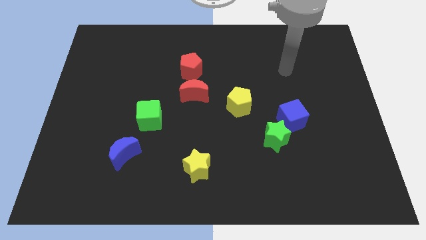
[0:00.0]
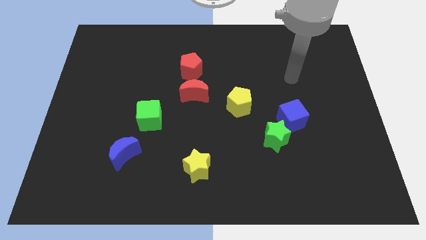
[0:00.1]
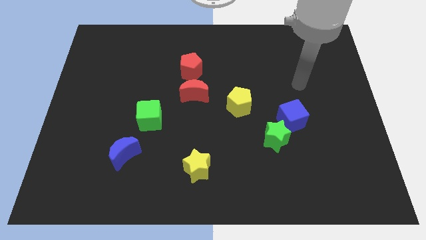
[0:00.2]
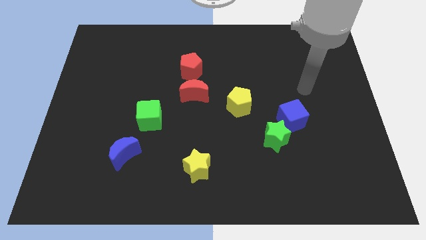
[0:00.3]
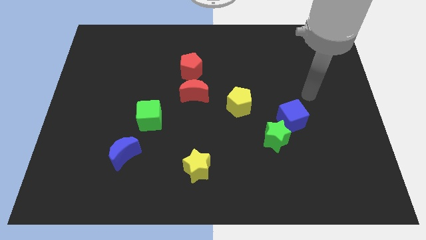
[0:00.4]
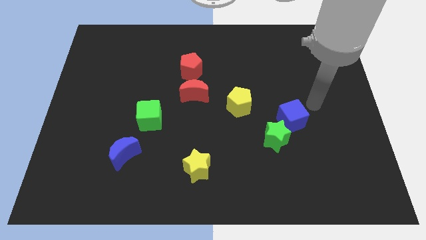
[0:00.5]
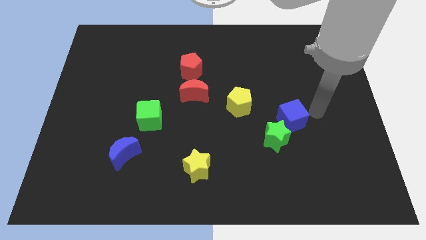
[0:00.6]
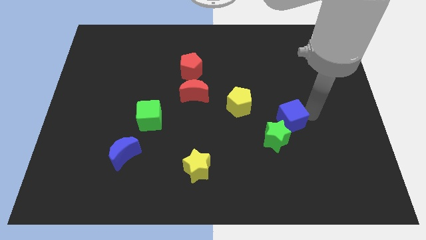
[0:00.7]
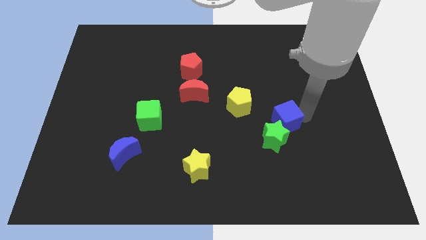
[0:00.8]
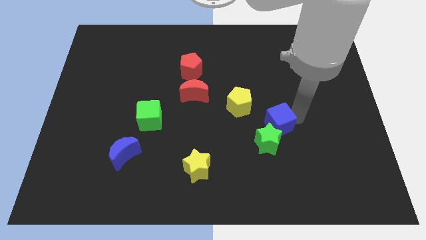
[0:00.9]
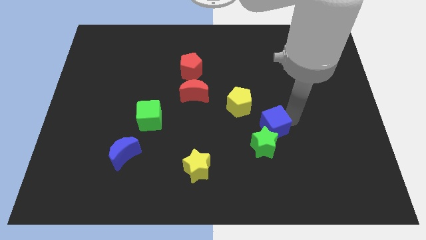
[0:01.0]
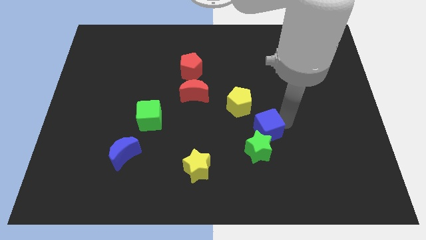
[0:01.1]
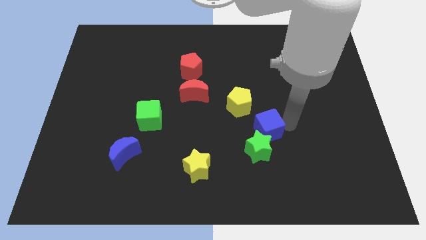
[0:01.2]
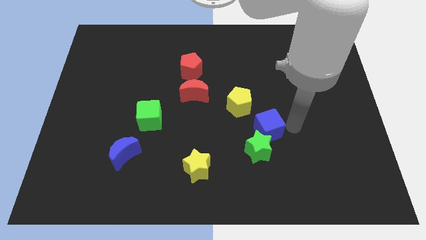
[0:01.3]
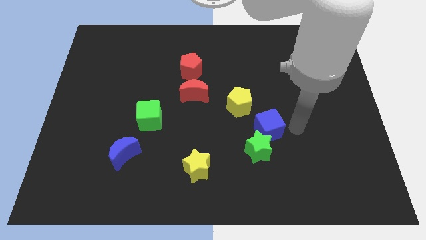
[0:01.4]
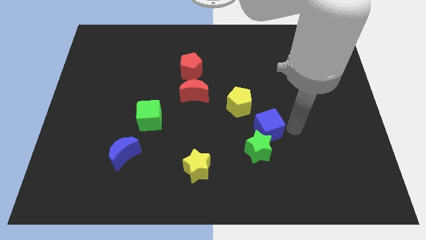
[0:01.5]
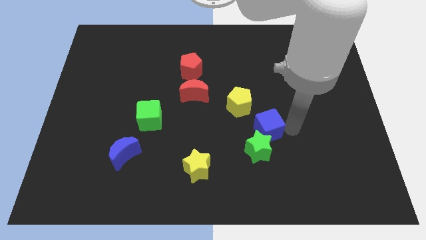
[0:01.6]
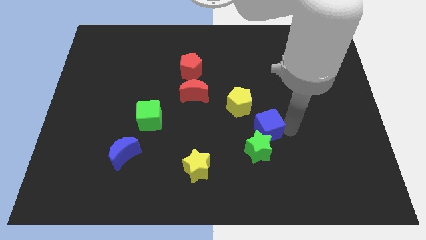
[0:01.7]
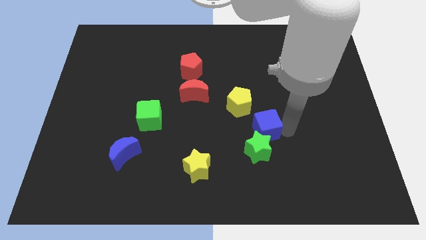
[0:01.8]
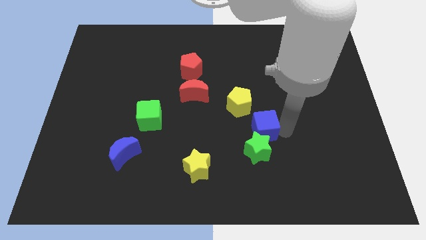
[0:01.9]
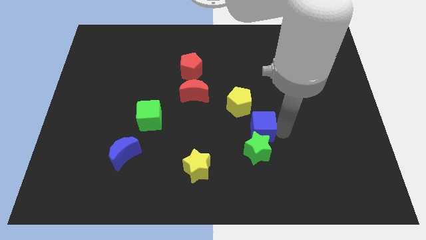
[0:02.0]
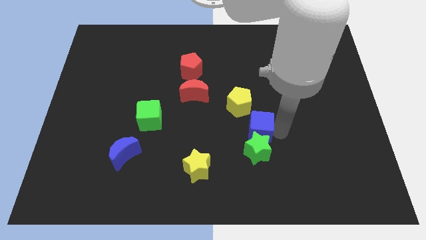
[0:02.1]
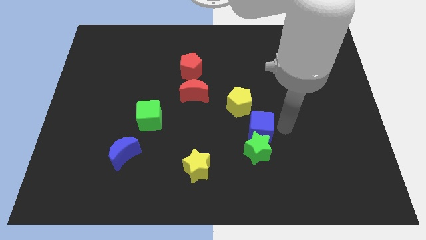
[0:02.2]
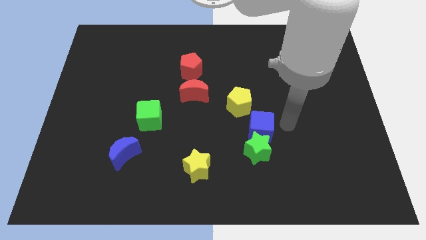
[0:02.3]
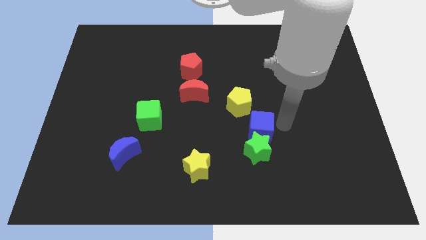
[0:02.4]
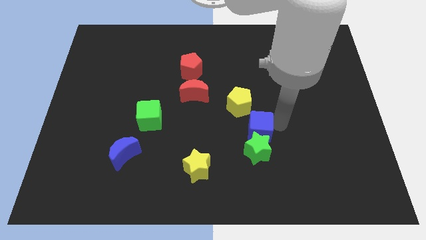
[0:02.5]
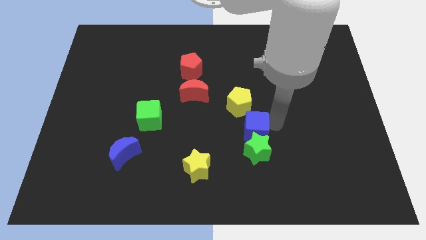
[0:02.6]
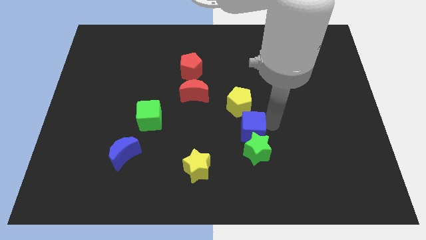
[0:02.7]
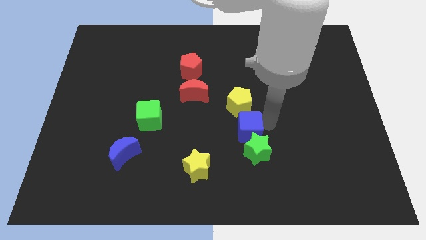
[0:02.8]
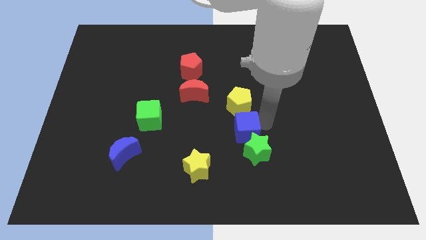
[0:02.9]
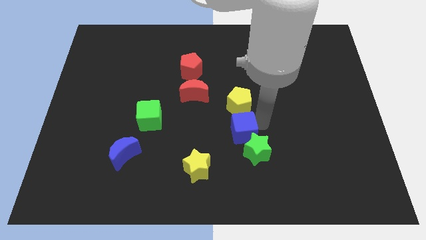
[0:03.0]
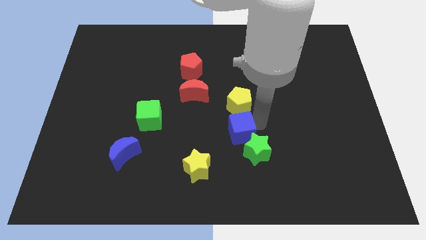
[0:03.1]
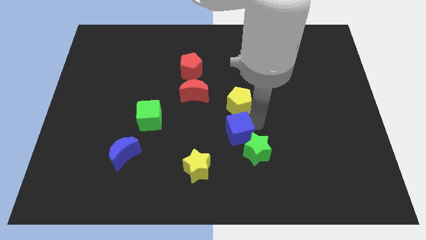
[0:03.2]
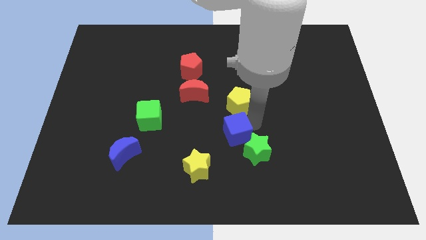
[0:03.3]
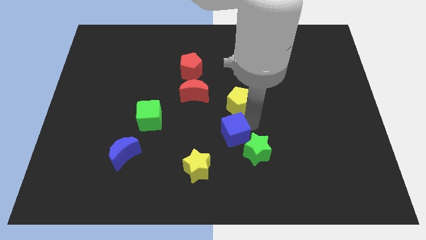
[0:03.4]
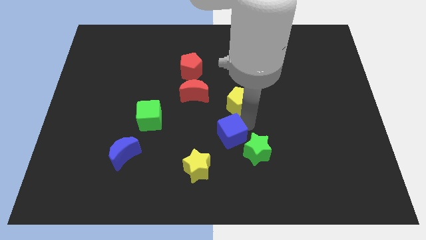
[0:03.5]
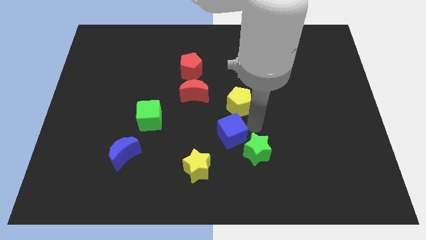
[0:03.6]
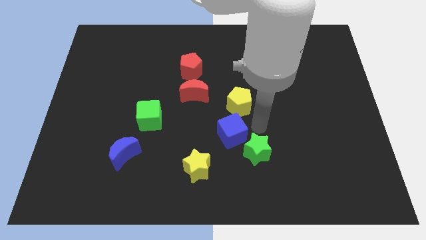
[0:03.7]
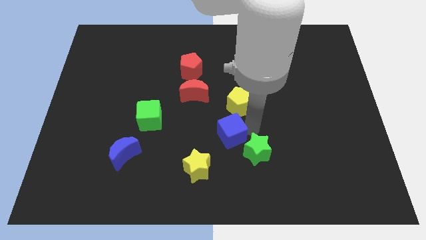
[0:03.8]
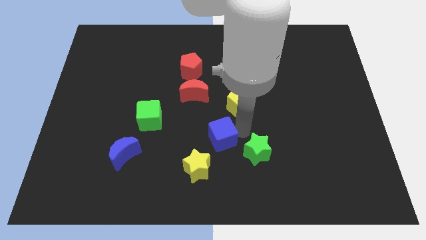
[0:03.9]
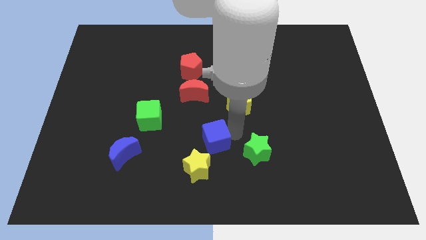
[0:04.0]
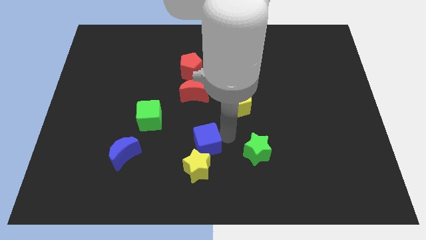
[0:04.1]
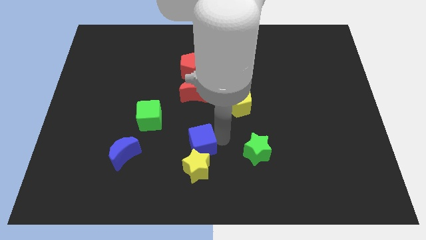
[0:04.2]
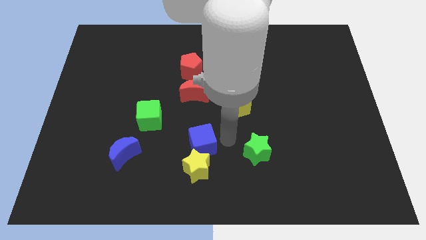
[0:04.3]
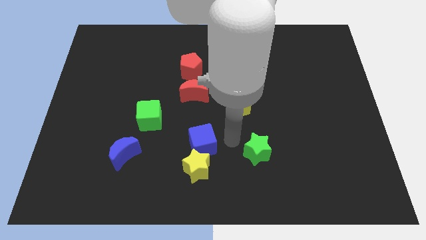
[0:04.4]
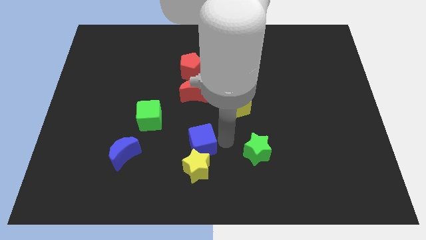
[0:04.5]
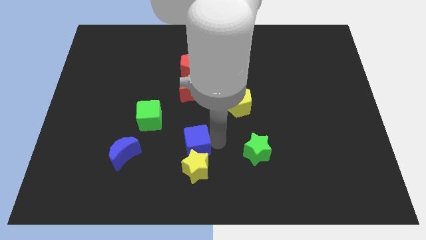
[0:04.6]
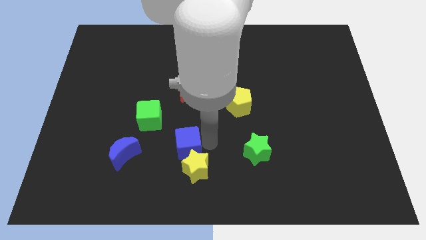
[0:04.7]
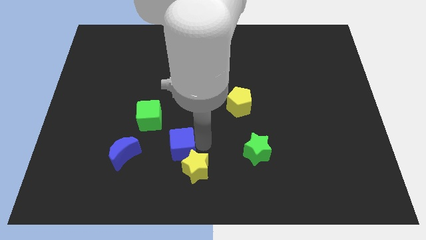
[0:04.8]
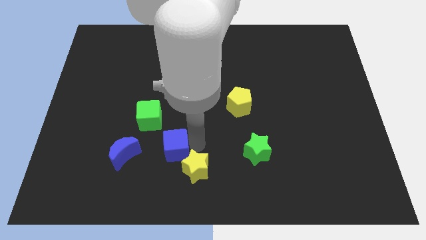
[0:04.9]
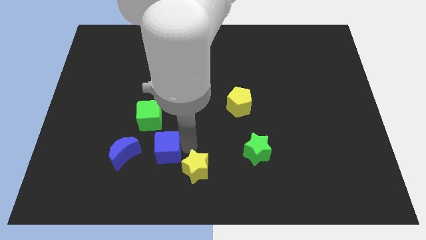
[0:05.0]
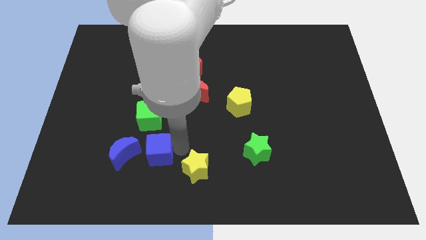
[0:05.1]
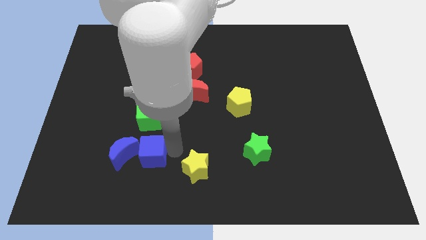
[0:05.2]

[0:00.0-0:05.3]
slide the blue cube close to the blue moon

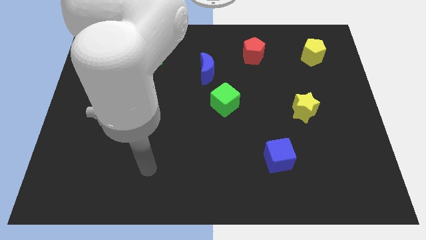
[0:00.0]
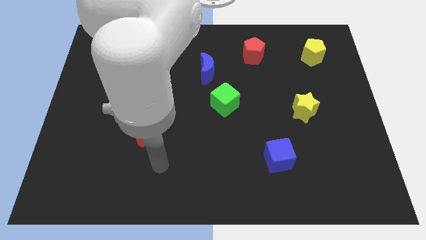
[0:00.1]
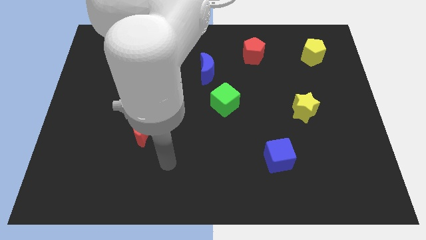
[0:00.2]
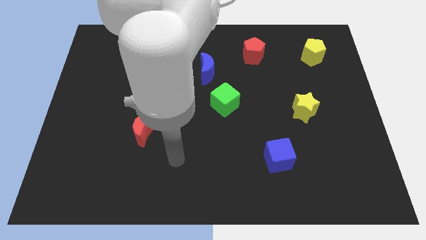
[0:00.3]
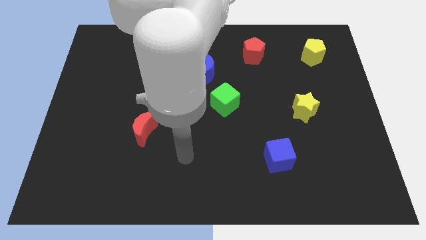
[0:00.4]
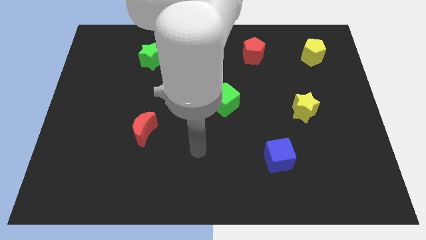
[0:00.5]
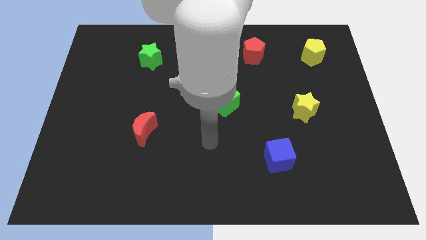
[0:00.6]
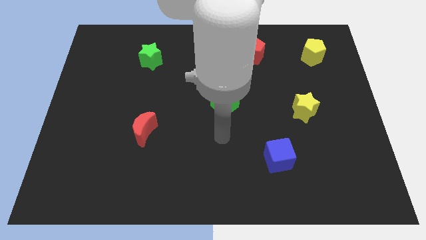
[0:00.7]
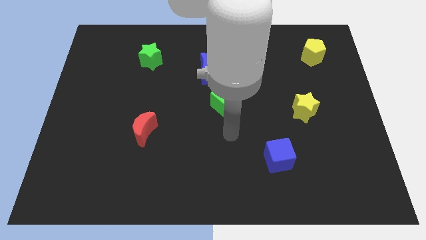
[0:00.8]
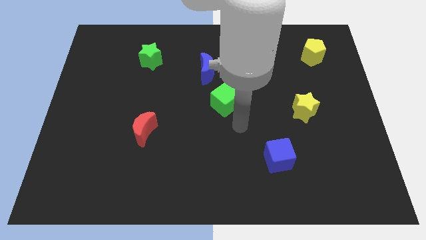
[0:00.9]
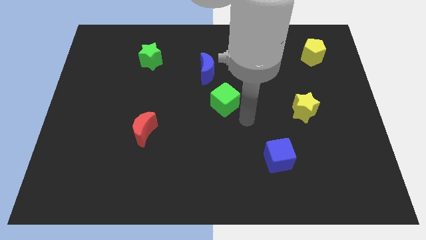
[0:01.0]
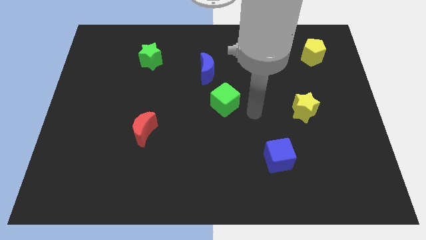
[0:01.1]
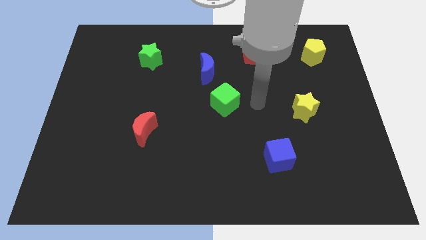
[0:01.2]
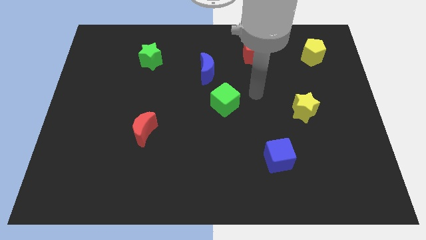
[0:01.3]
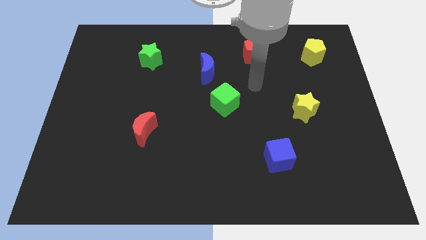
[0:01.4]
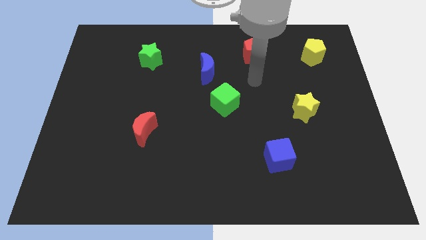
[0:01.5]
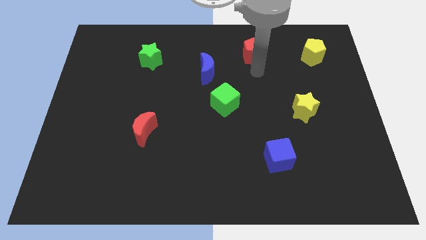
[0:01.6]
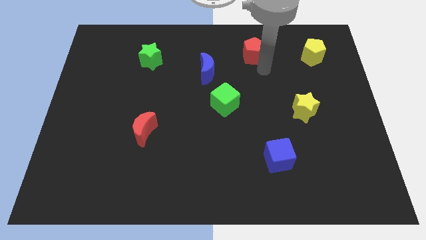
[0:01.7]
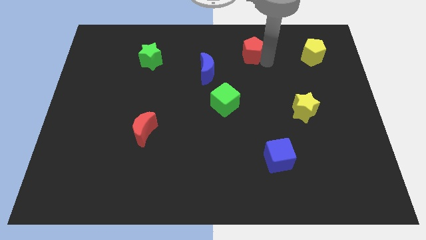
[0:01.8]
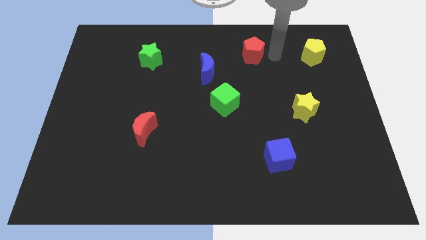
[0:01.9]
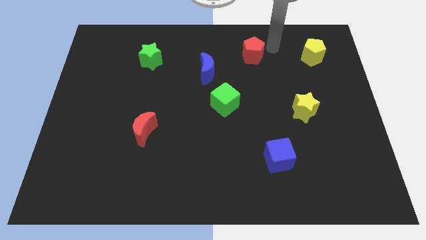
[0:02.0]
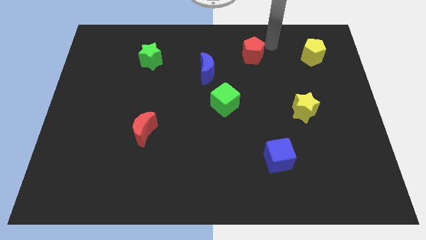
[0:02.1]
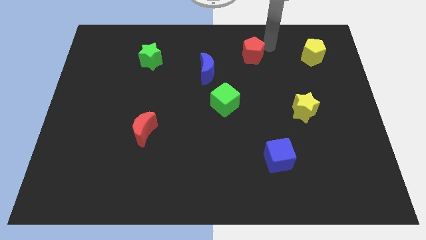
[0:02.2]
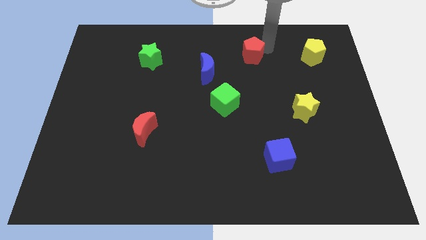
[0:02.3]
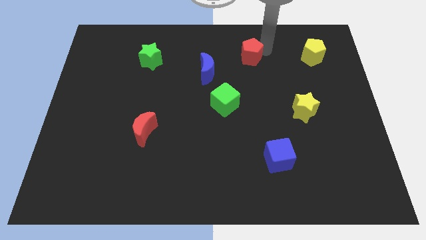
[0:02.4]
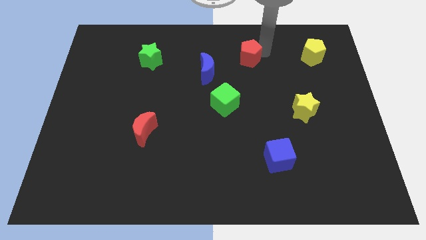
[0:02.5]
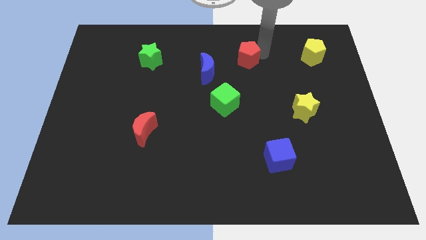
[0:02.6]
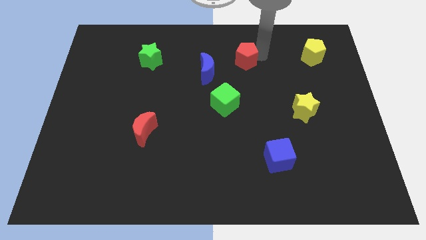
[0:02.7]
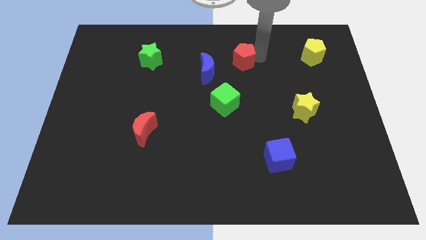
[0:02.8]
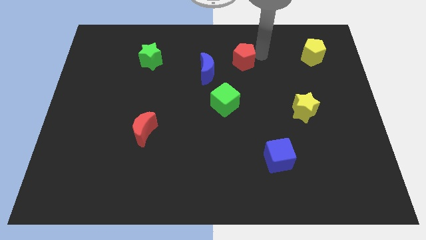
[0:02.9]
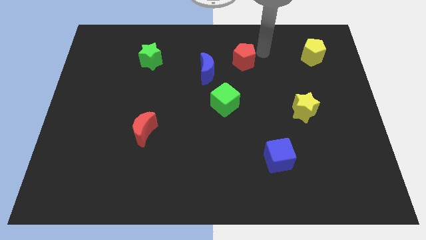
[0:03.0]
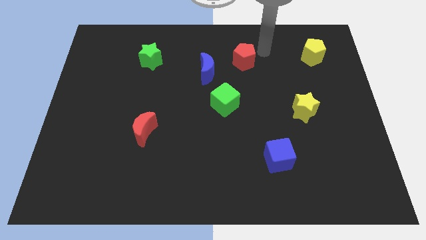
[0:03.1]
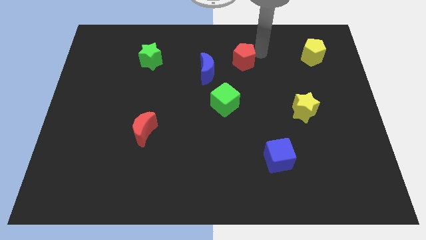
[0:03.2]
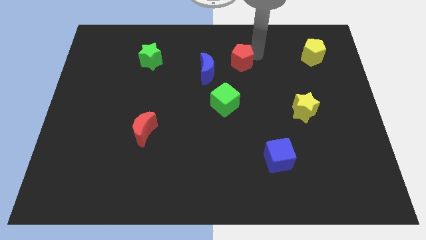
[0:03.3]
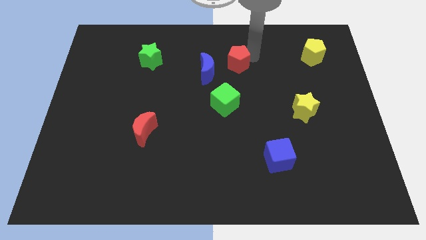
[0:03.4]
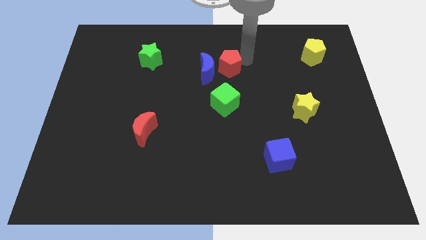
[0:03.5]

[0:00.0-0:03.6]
push the red pentagon to the blue moon

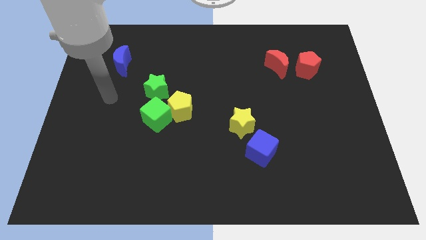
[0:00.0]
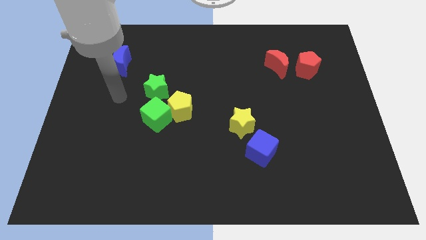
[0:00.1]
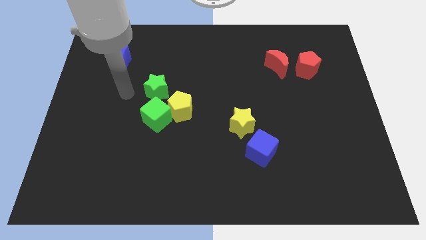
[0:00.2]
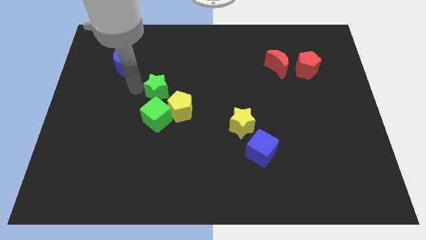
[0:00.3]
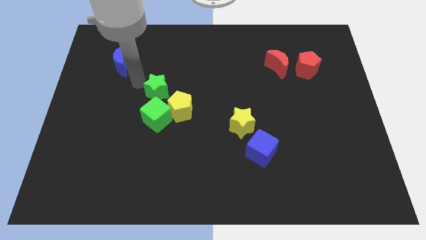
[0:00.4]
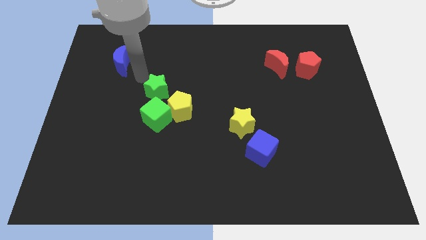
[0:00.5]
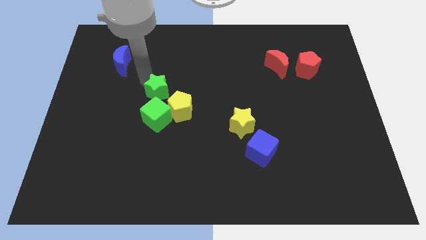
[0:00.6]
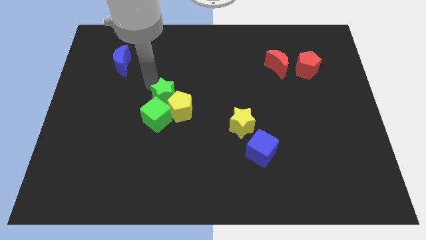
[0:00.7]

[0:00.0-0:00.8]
put the green star close to the yellow pentagon
